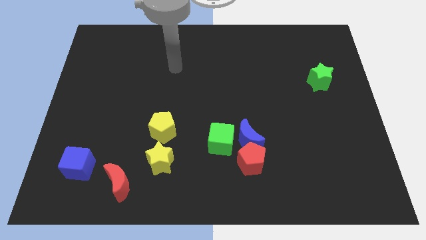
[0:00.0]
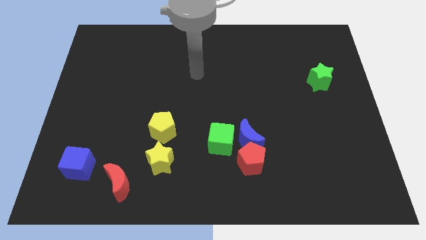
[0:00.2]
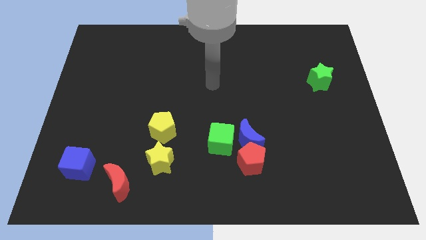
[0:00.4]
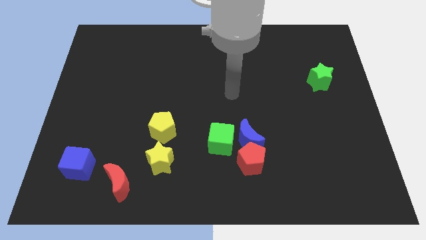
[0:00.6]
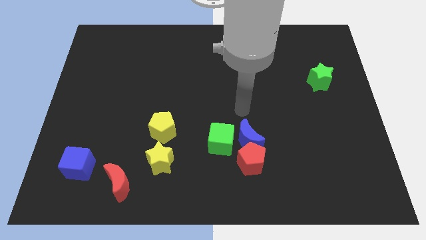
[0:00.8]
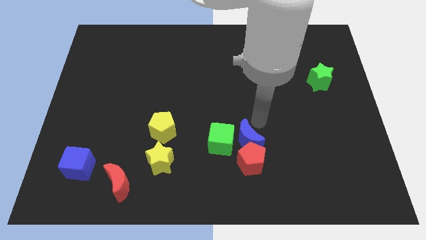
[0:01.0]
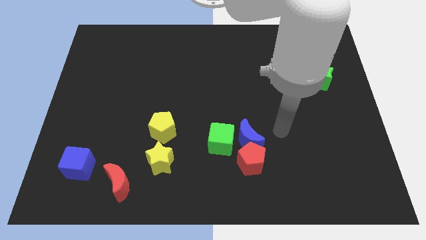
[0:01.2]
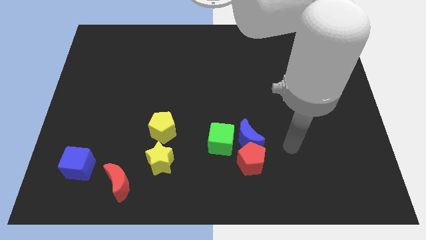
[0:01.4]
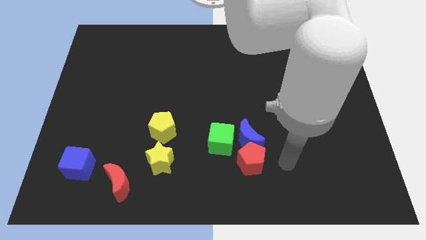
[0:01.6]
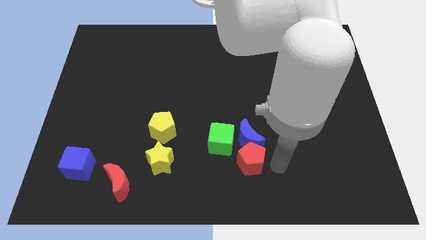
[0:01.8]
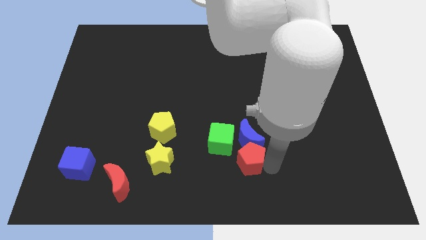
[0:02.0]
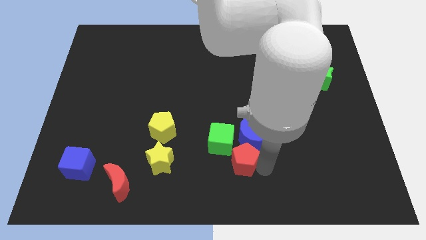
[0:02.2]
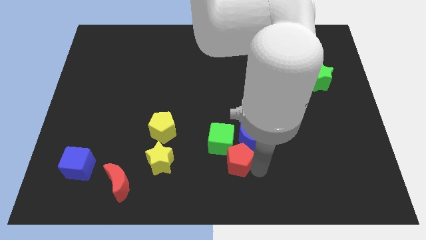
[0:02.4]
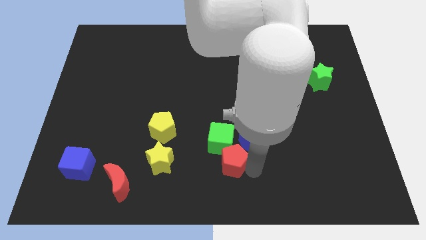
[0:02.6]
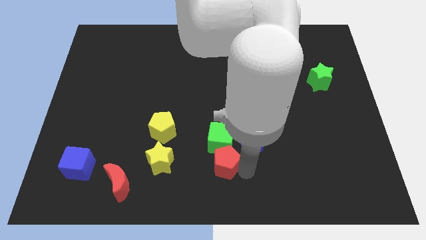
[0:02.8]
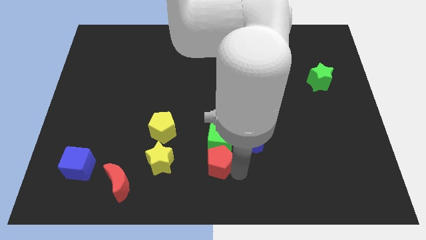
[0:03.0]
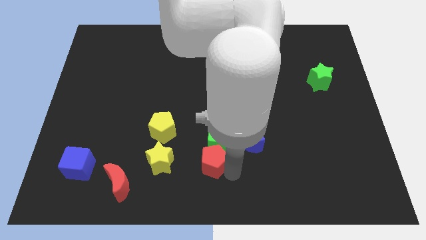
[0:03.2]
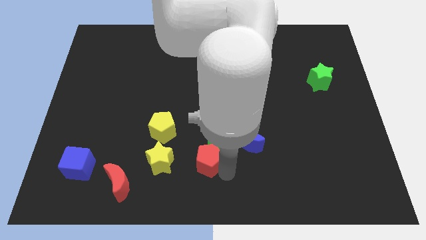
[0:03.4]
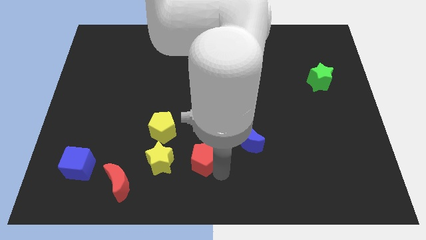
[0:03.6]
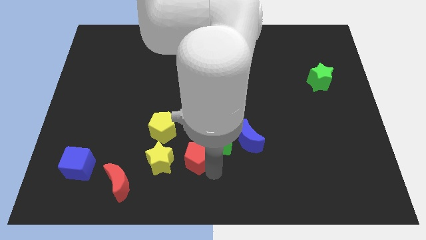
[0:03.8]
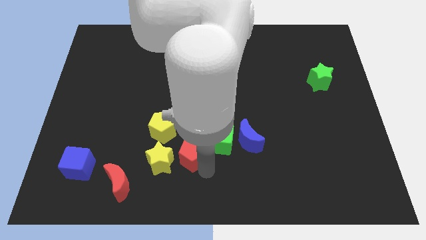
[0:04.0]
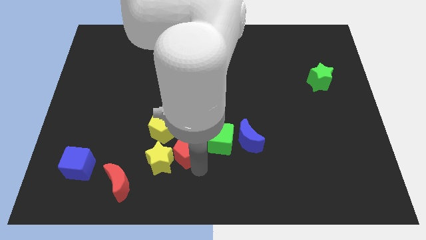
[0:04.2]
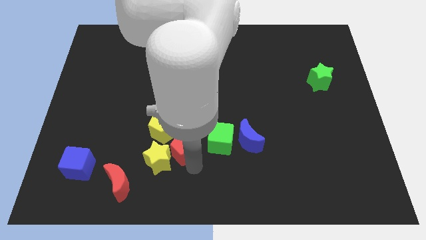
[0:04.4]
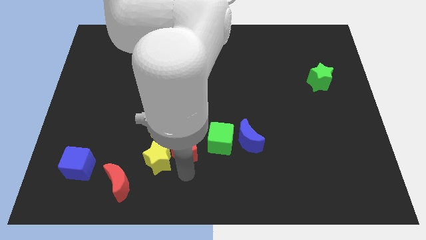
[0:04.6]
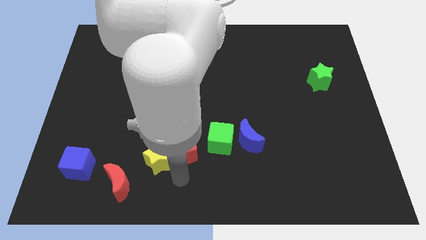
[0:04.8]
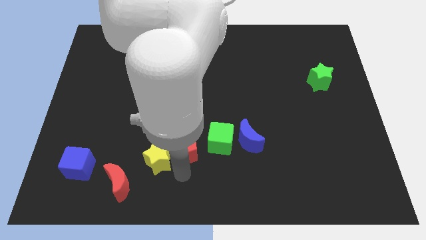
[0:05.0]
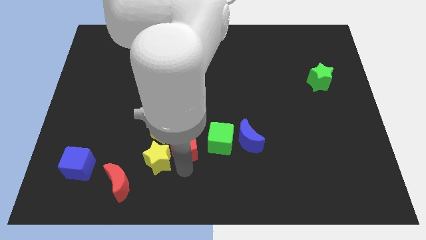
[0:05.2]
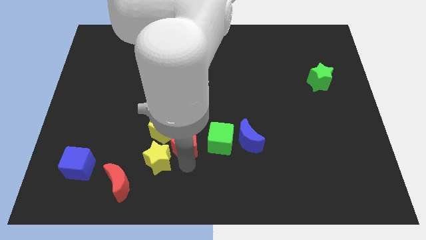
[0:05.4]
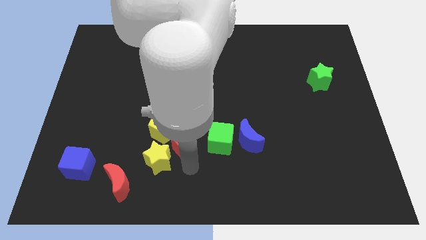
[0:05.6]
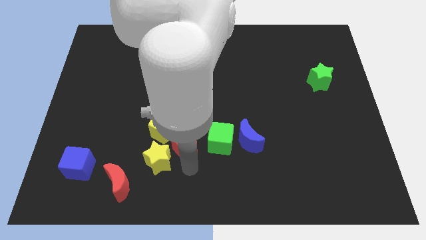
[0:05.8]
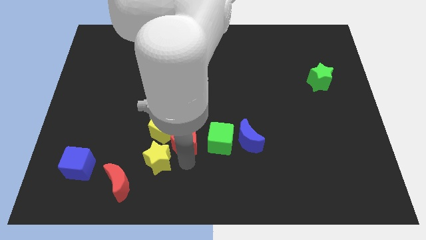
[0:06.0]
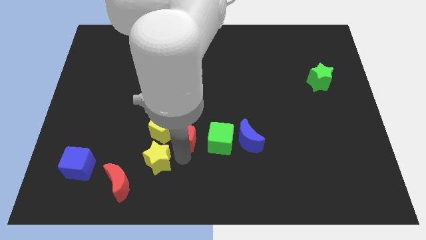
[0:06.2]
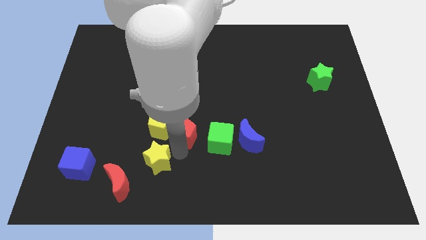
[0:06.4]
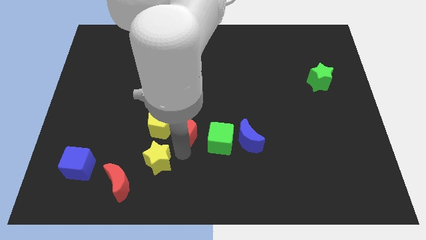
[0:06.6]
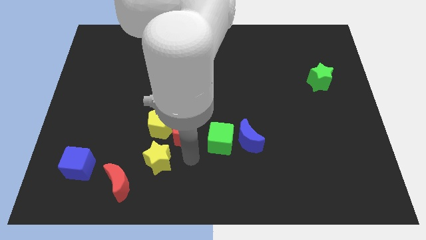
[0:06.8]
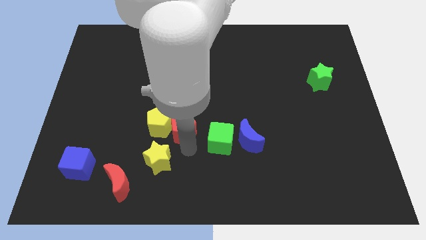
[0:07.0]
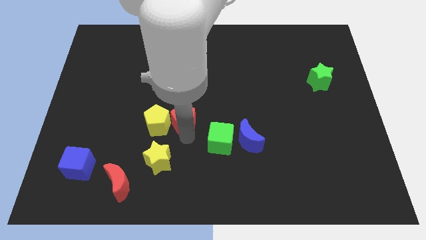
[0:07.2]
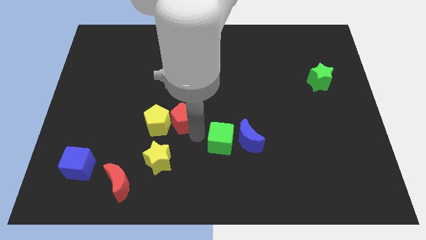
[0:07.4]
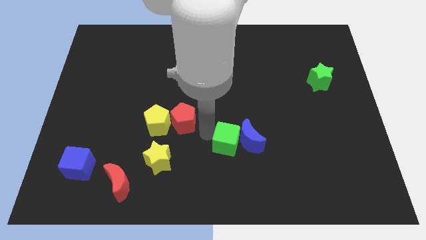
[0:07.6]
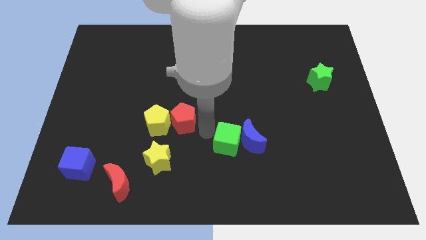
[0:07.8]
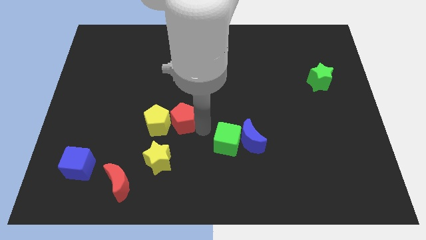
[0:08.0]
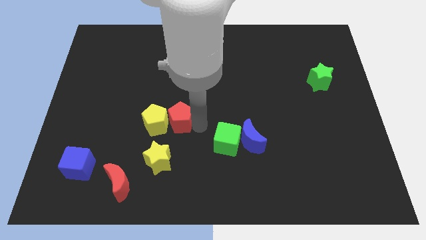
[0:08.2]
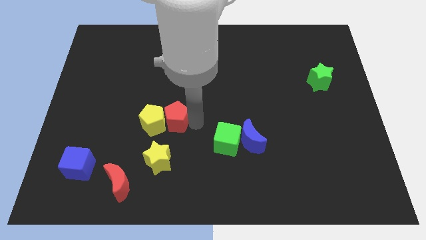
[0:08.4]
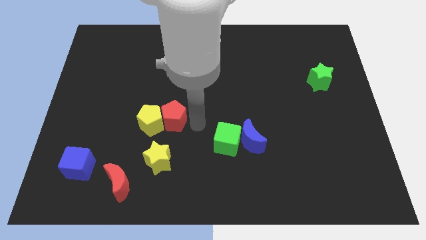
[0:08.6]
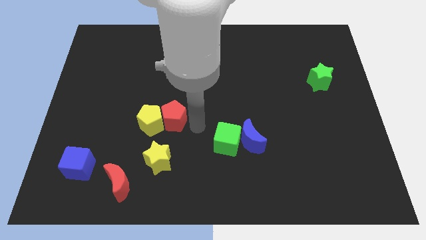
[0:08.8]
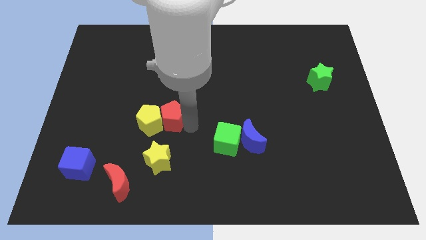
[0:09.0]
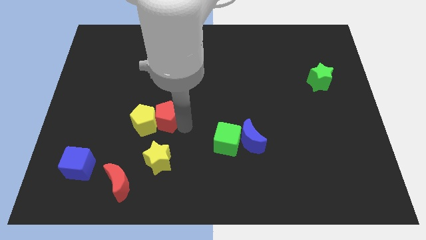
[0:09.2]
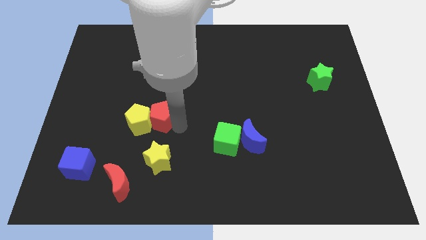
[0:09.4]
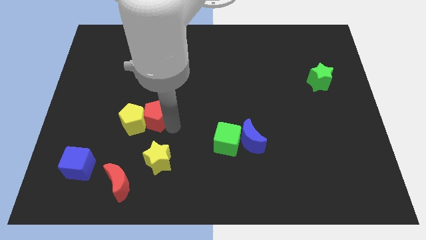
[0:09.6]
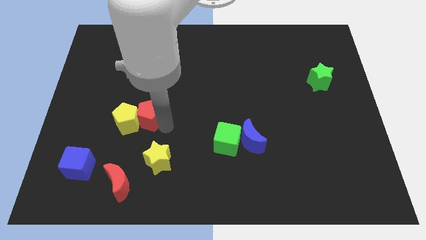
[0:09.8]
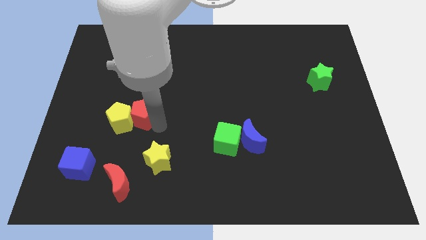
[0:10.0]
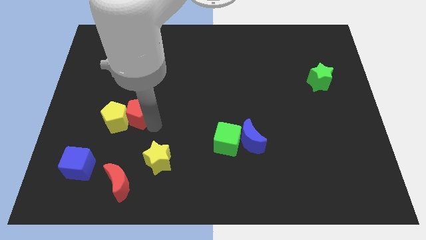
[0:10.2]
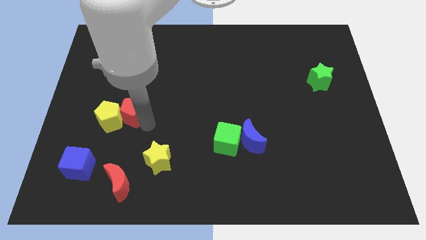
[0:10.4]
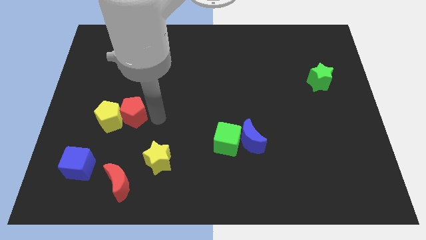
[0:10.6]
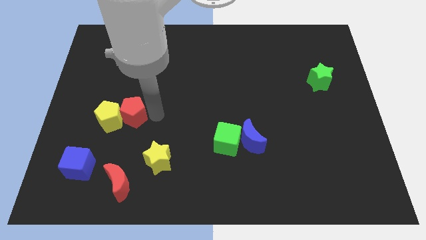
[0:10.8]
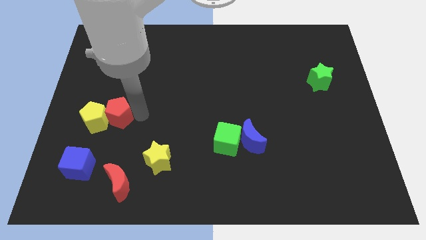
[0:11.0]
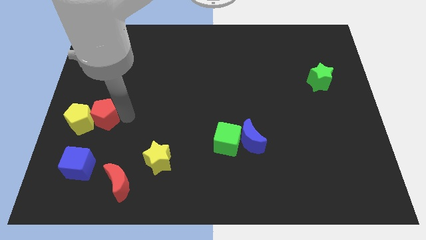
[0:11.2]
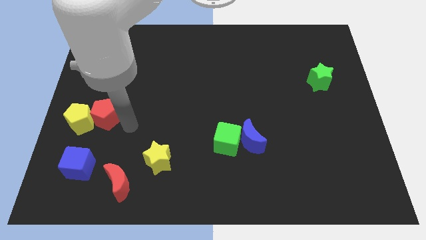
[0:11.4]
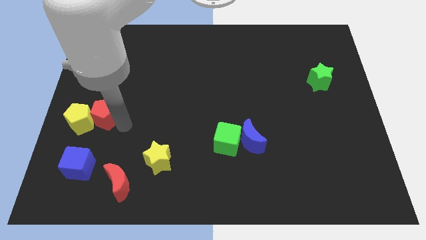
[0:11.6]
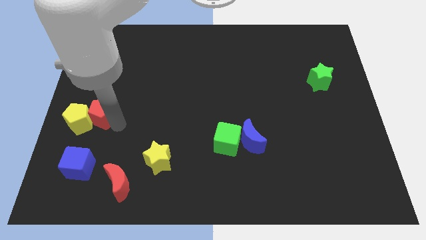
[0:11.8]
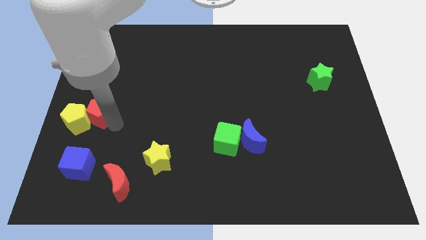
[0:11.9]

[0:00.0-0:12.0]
slide the red pentagon to the left side
